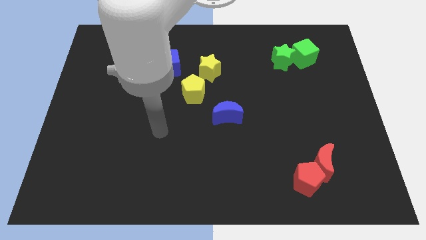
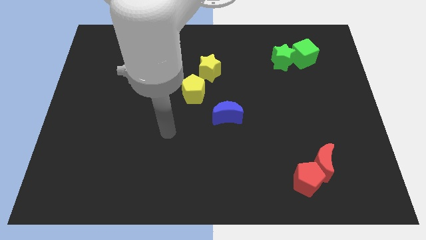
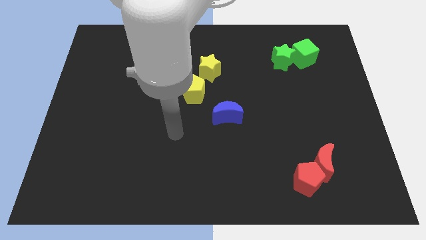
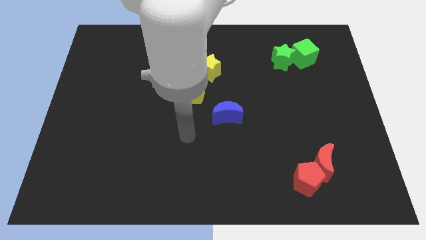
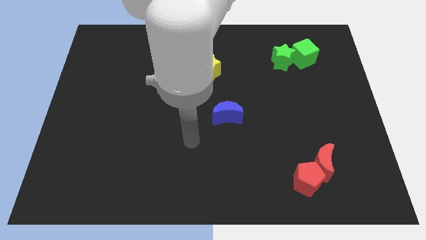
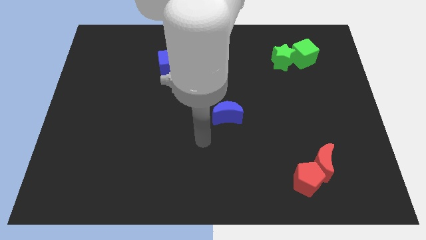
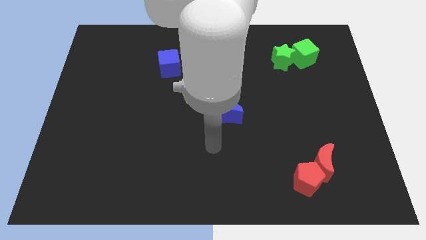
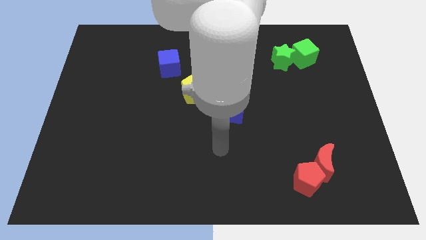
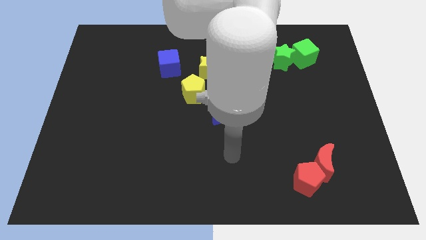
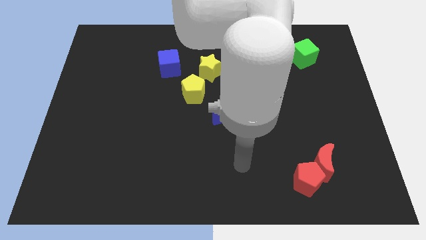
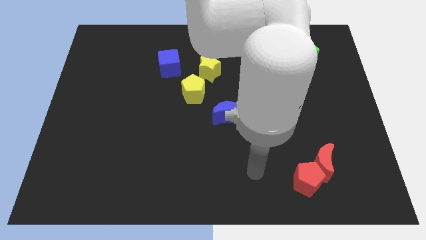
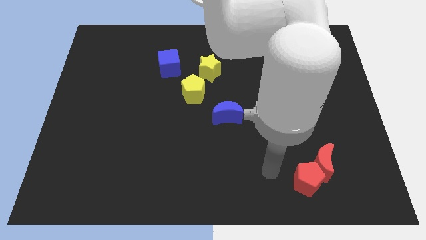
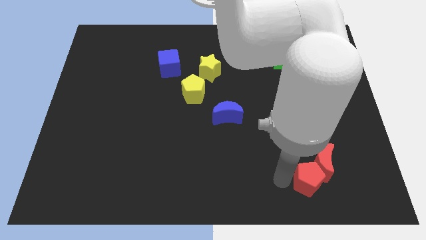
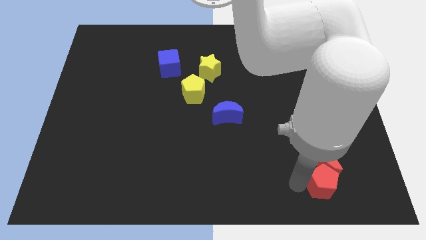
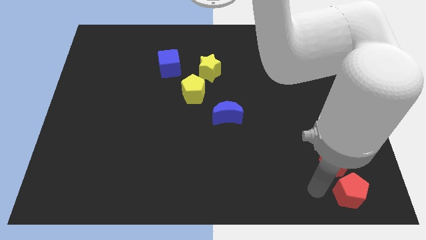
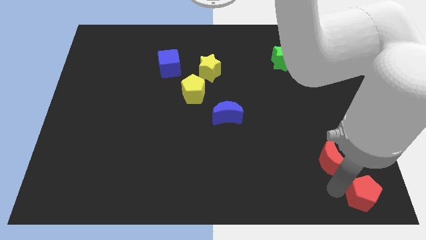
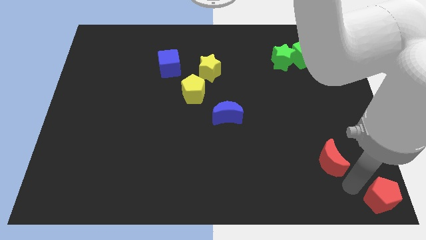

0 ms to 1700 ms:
pull the red moon apart from the red pentagon

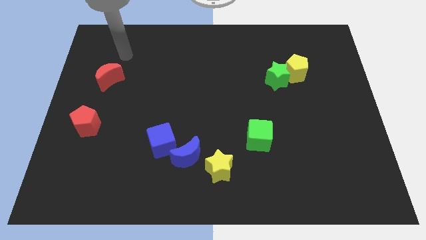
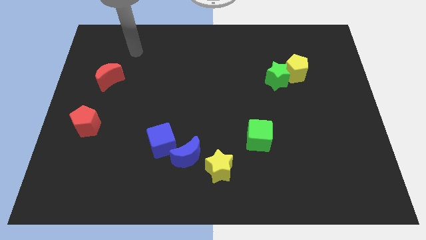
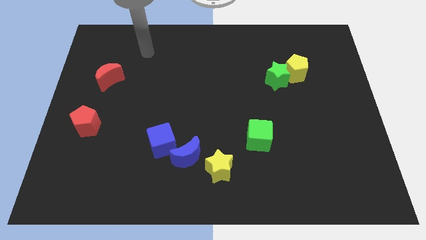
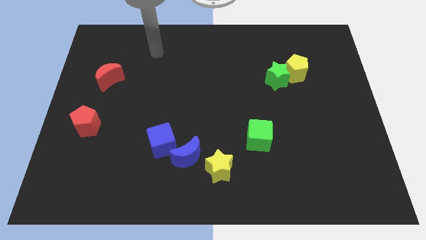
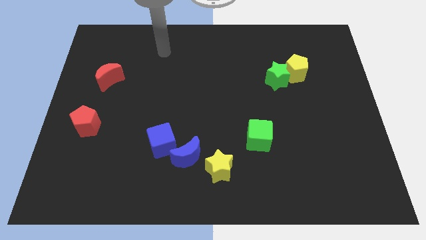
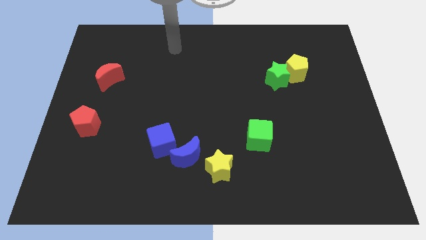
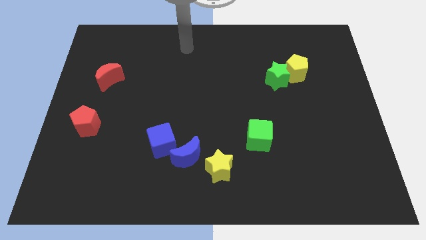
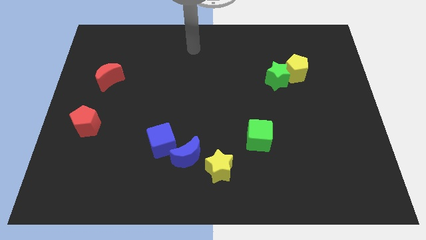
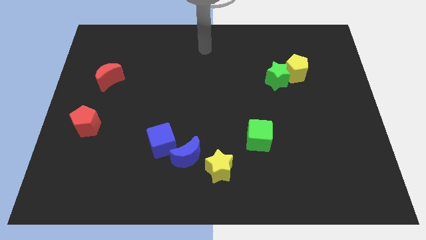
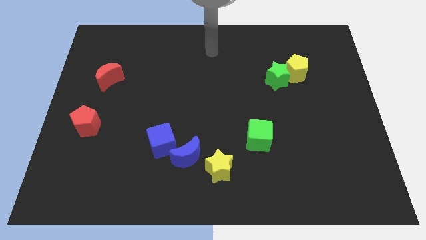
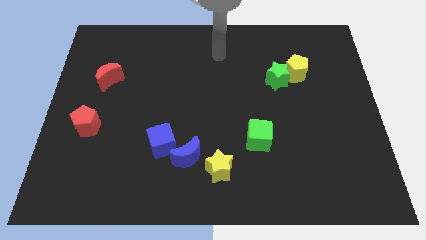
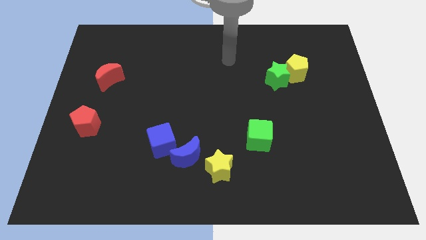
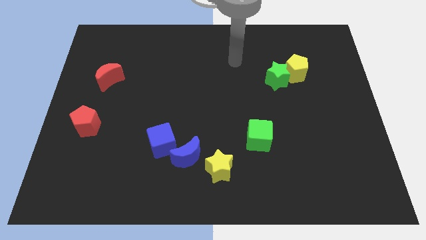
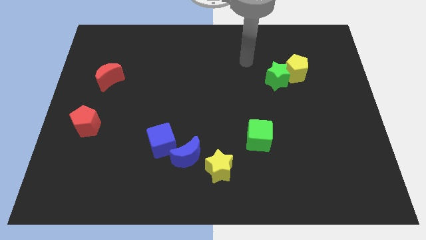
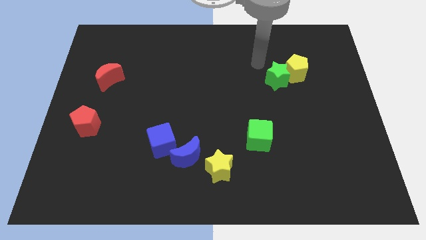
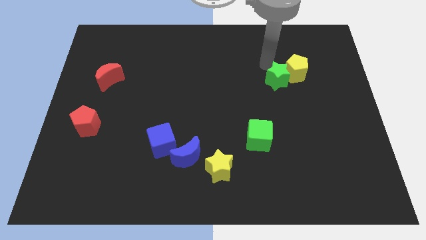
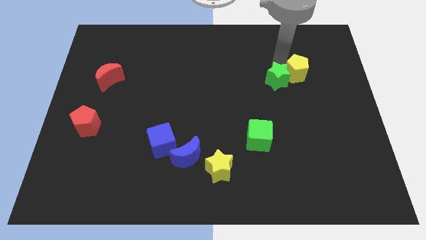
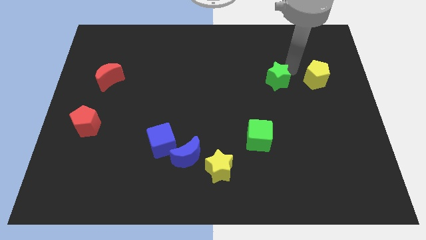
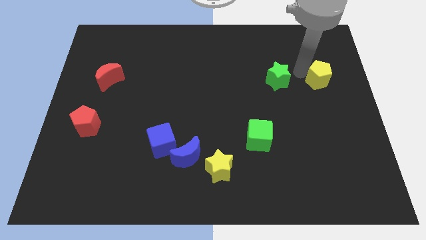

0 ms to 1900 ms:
separate the green star from the yellow pentagon

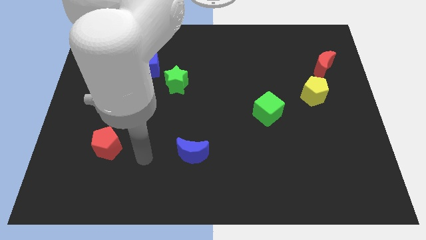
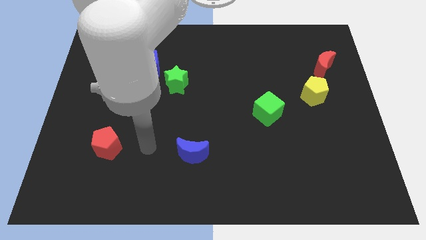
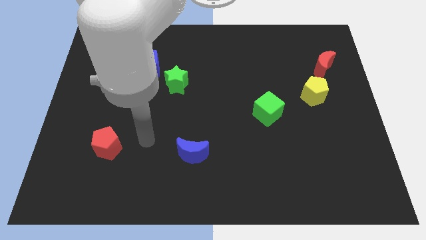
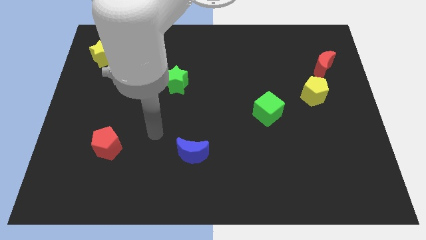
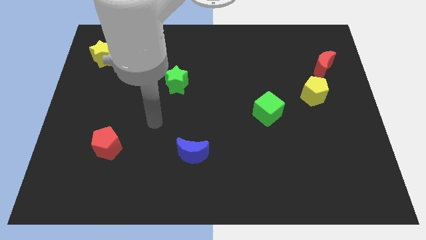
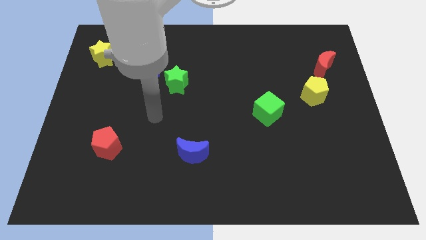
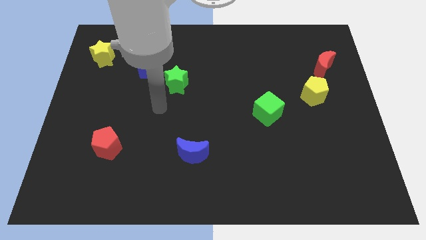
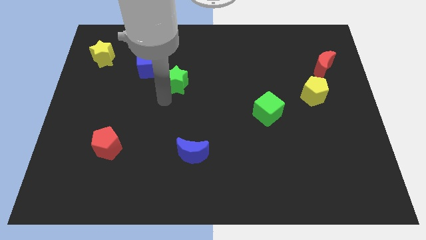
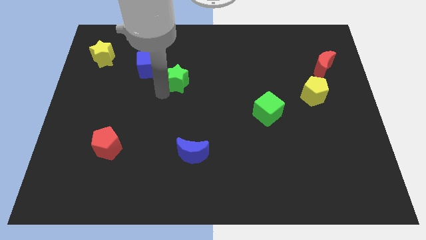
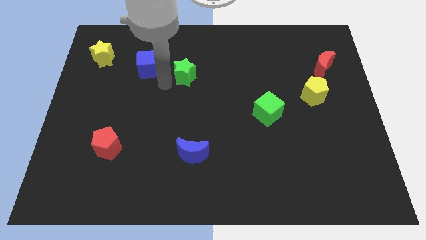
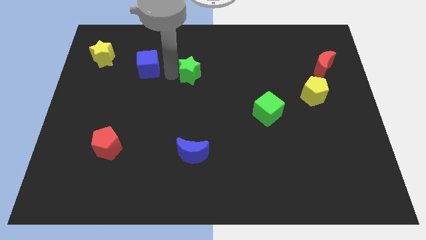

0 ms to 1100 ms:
pull the blue cube apart from the green star

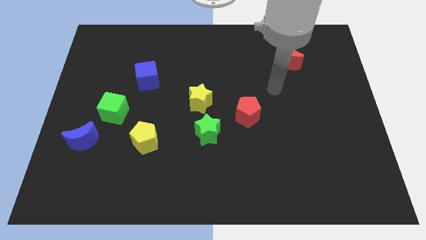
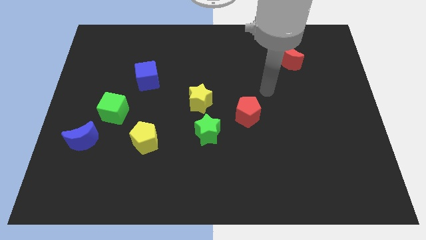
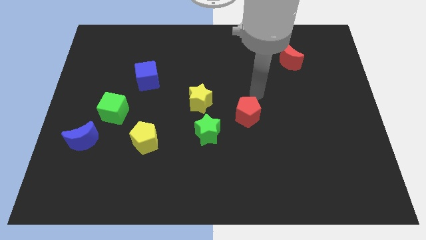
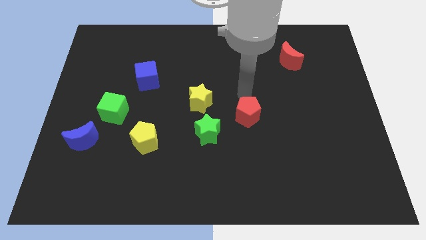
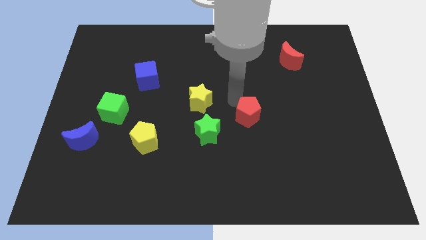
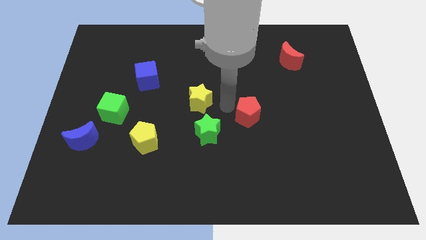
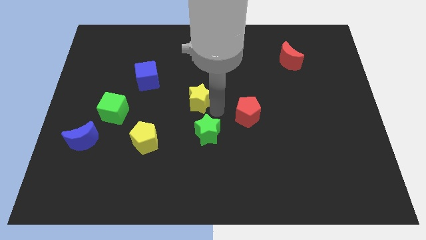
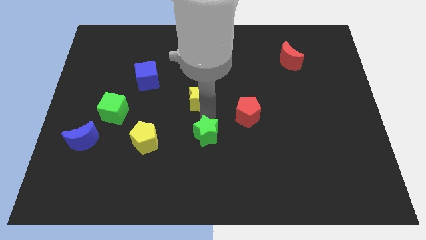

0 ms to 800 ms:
separate the yellow star from the green star

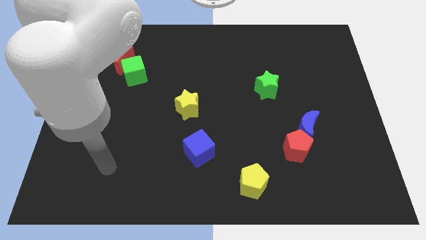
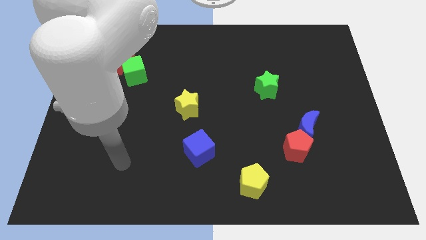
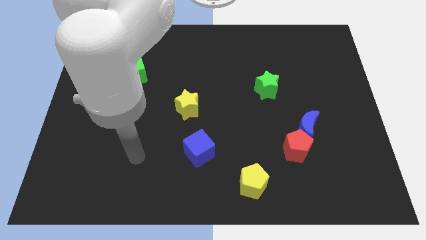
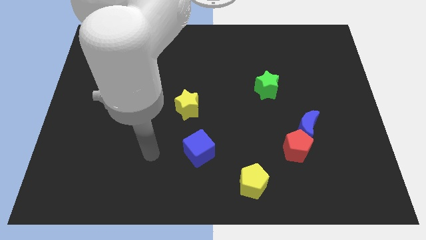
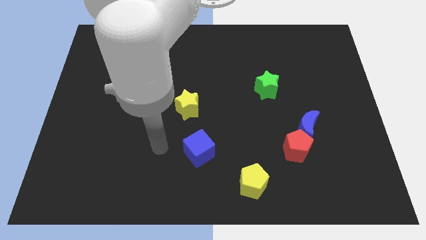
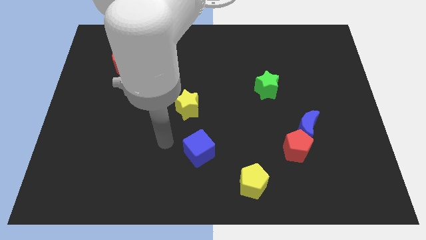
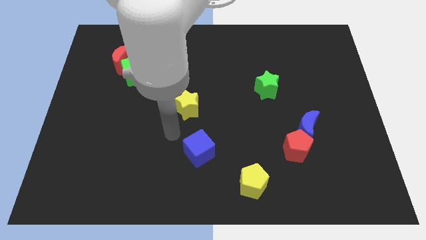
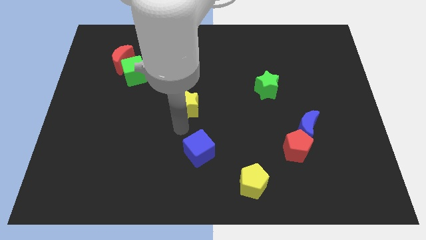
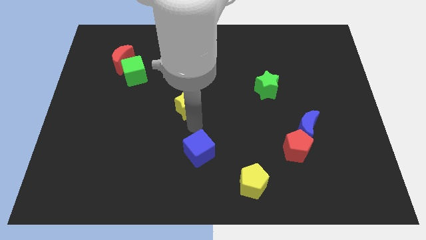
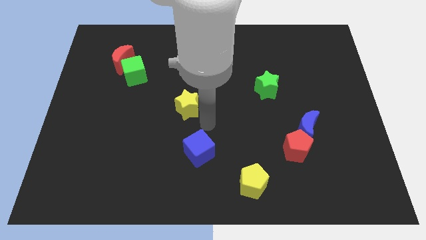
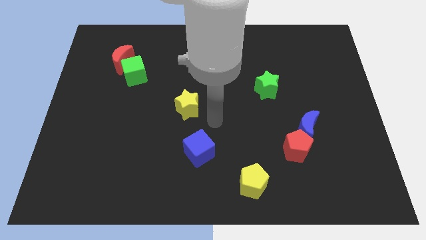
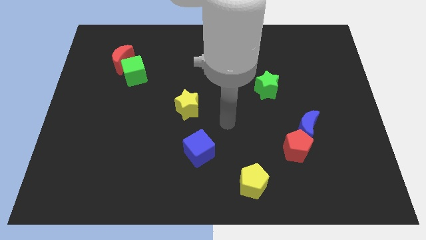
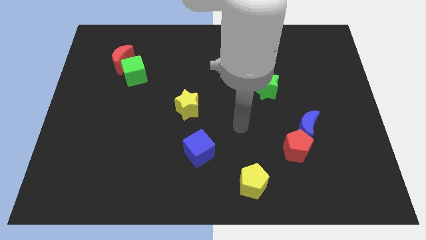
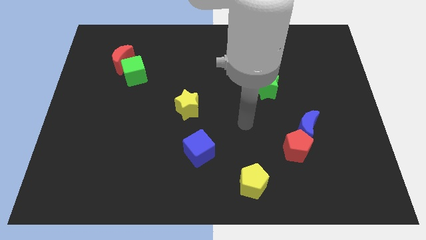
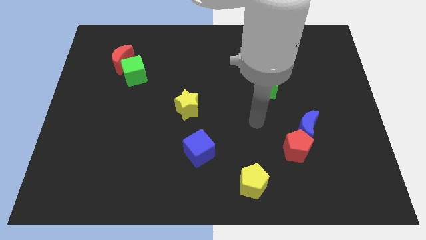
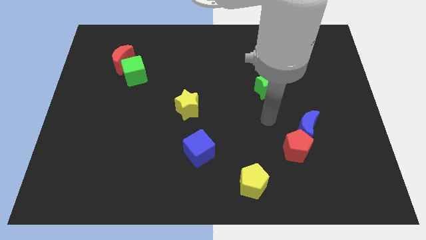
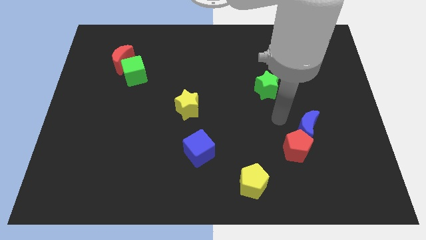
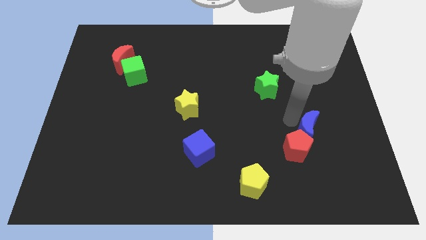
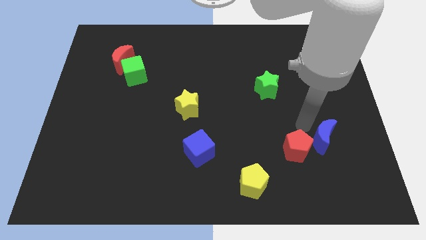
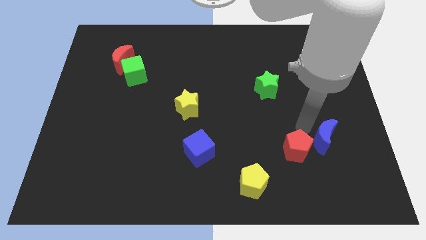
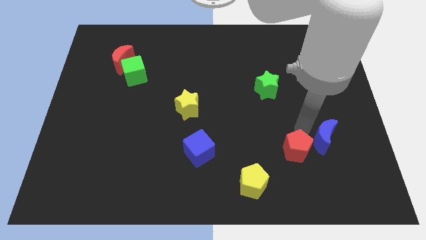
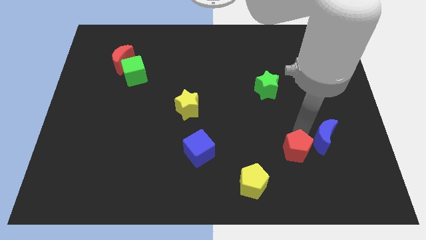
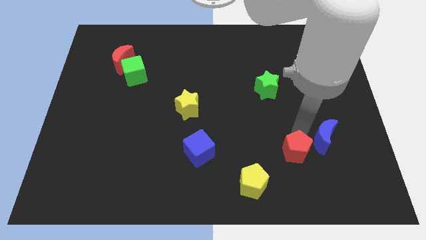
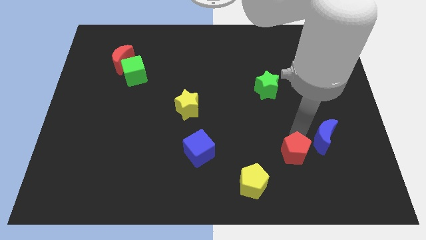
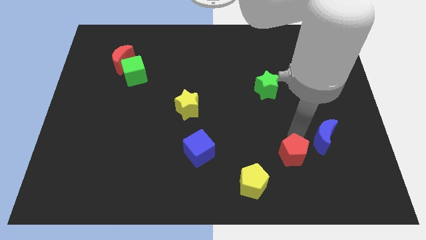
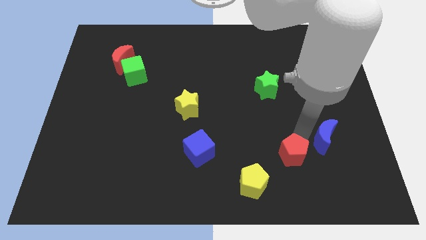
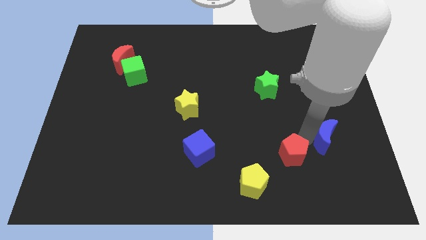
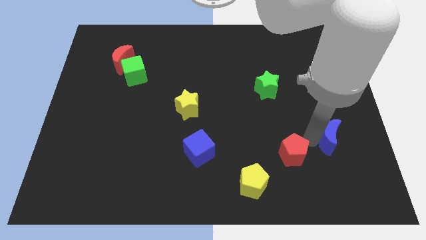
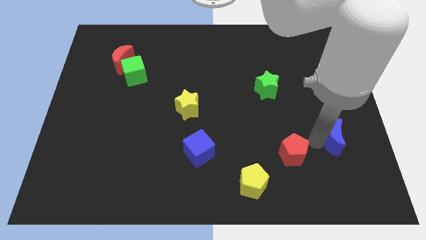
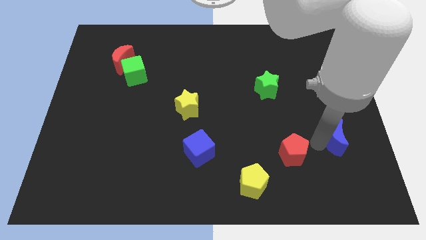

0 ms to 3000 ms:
pull the red pentagon apart from the blue moon

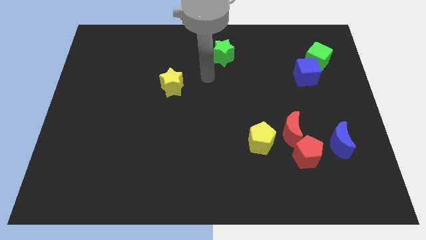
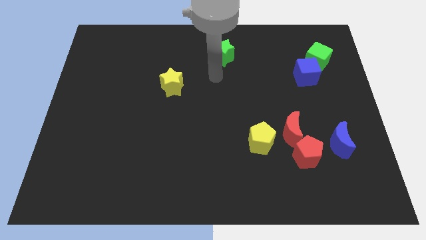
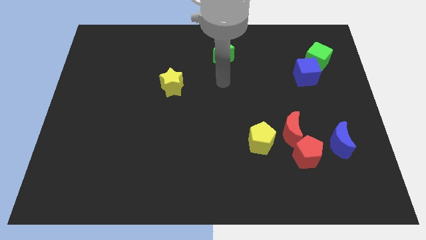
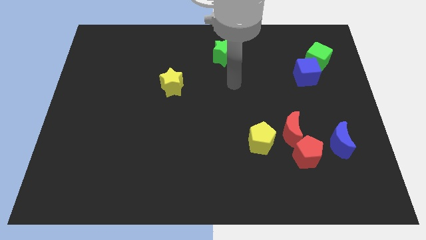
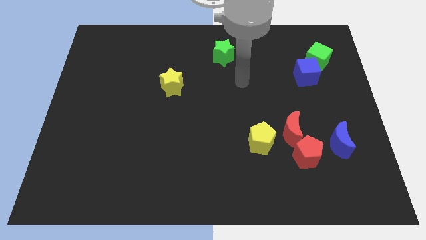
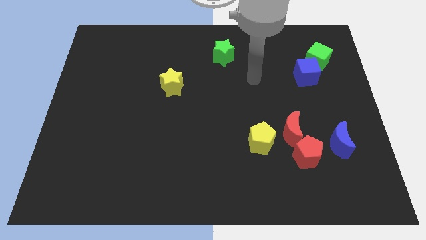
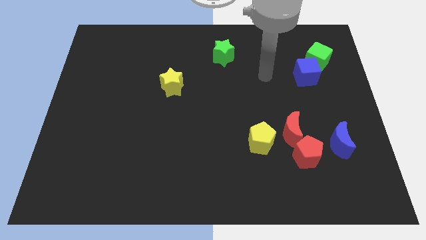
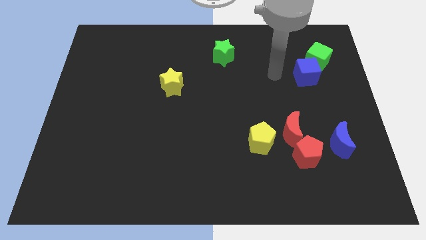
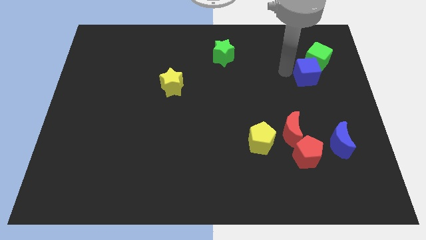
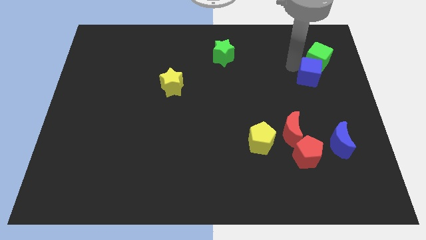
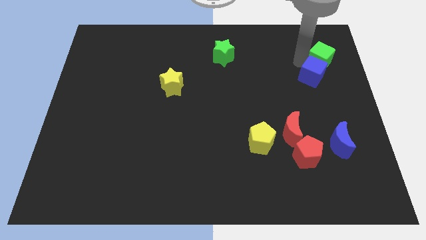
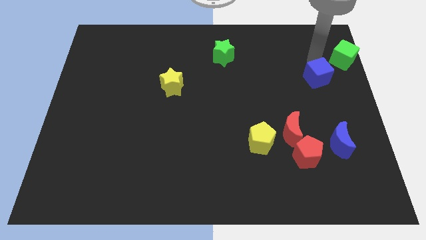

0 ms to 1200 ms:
separate the blue cube from the green cube
